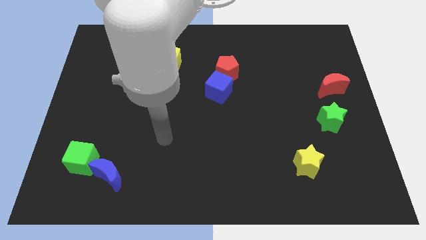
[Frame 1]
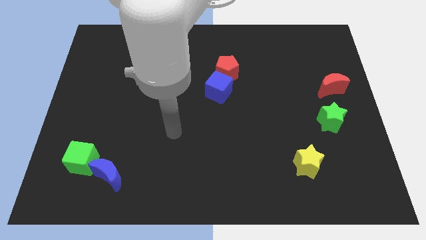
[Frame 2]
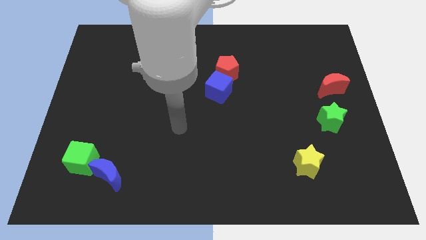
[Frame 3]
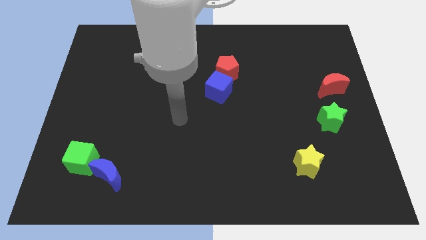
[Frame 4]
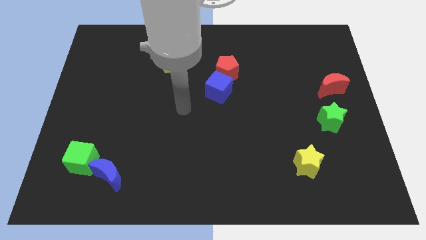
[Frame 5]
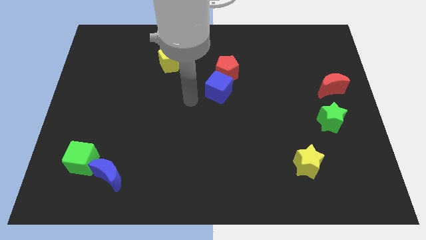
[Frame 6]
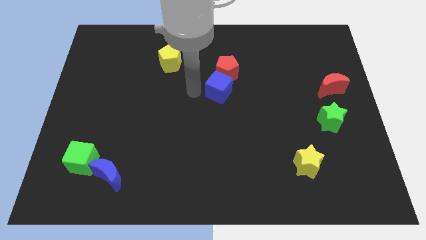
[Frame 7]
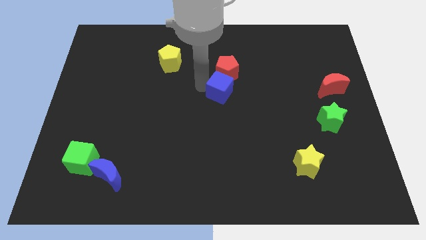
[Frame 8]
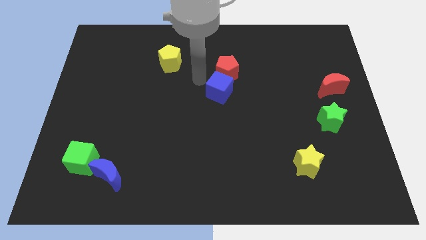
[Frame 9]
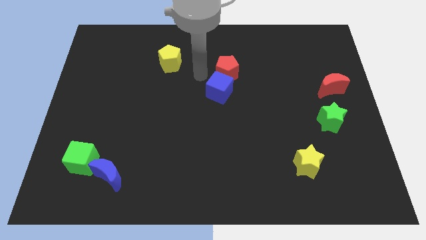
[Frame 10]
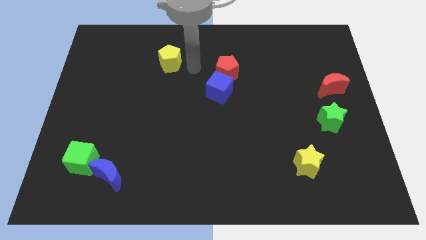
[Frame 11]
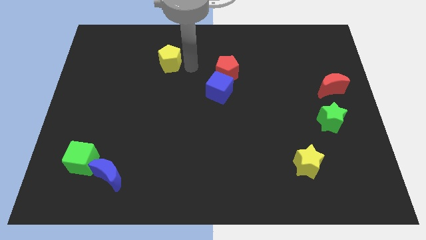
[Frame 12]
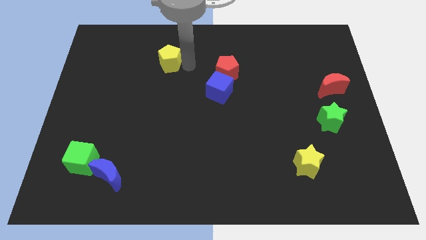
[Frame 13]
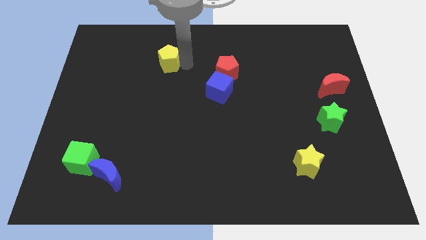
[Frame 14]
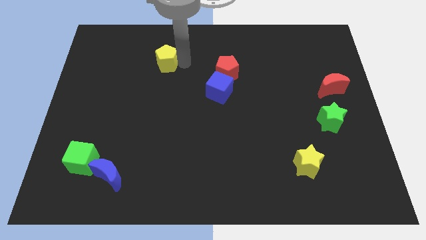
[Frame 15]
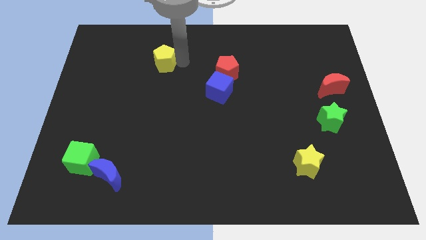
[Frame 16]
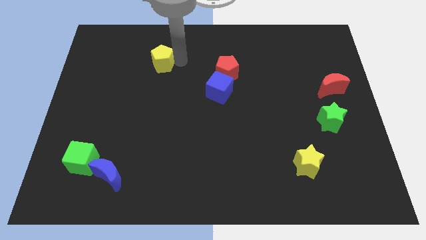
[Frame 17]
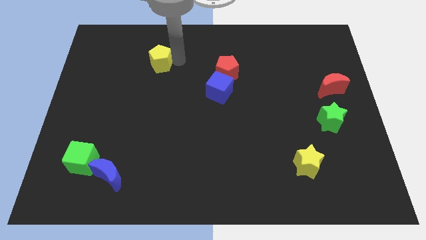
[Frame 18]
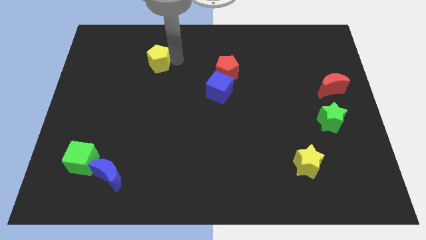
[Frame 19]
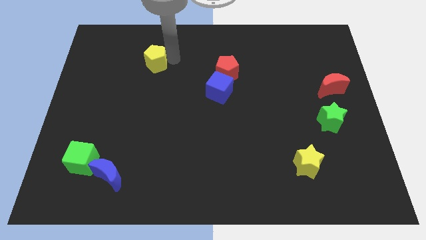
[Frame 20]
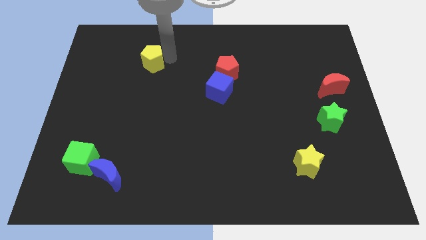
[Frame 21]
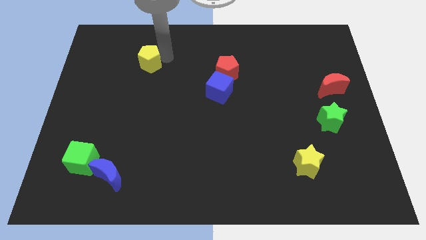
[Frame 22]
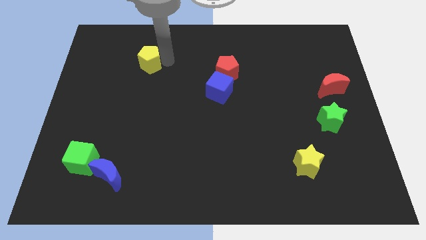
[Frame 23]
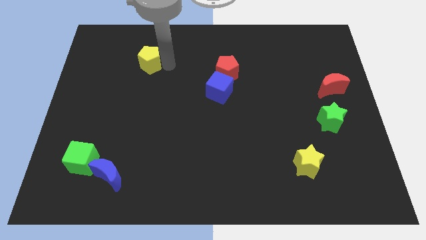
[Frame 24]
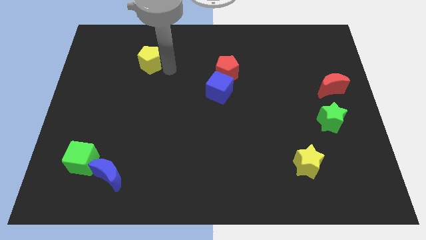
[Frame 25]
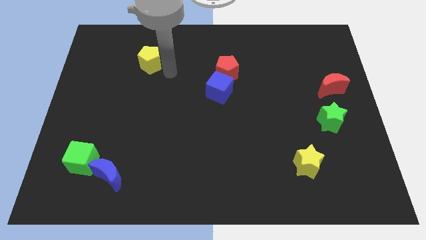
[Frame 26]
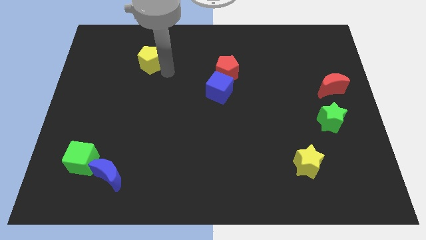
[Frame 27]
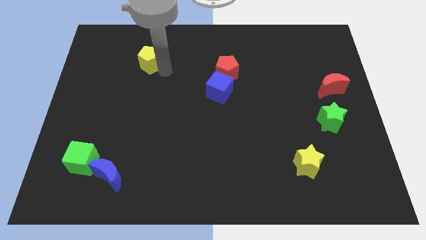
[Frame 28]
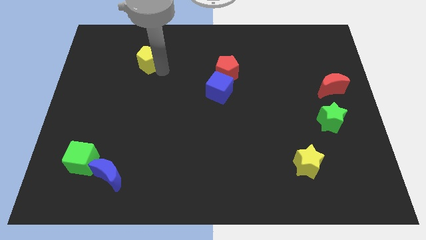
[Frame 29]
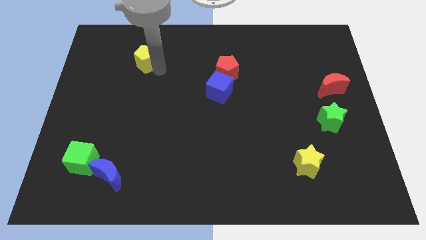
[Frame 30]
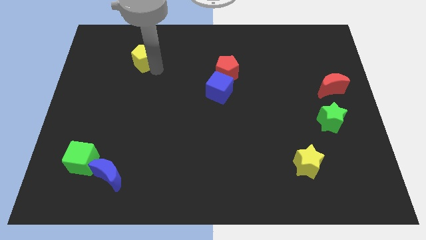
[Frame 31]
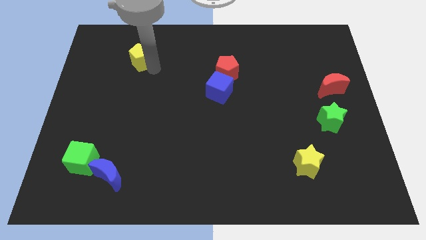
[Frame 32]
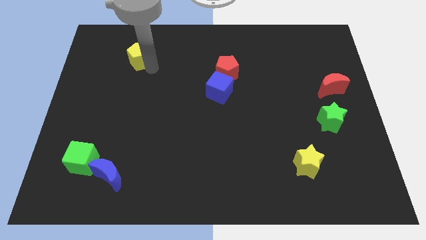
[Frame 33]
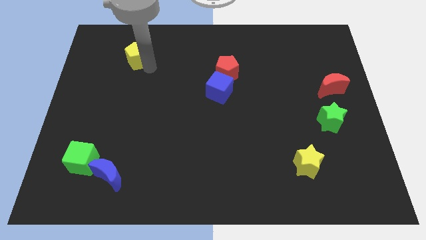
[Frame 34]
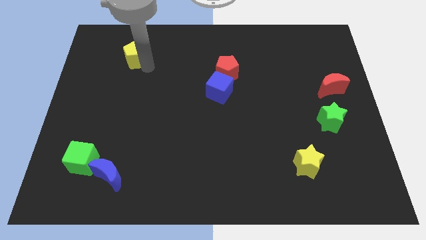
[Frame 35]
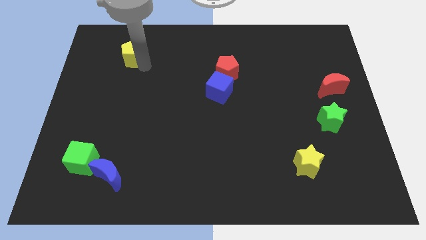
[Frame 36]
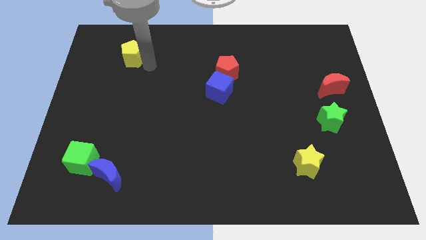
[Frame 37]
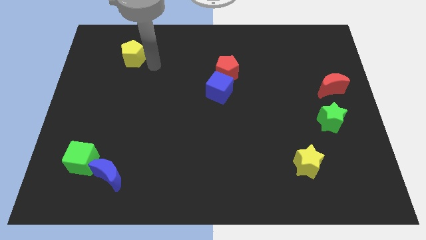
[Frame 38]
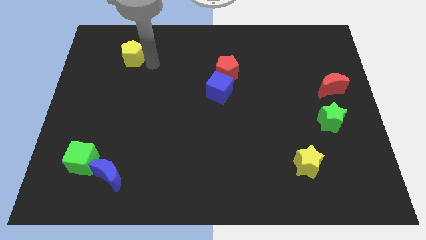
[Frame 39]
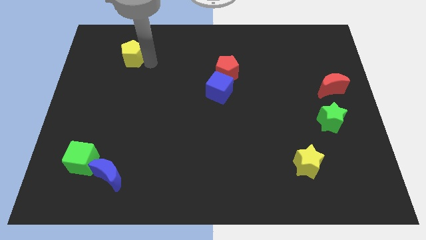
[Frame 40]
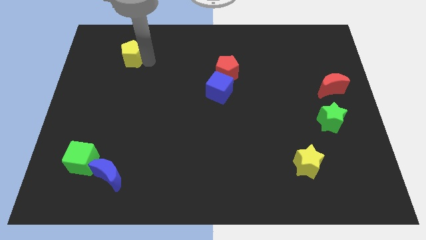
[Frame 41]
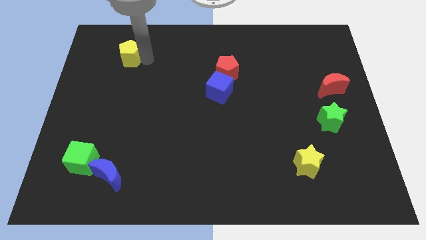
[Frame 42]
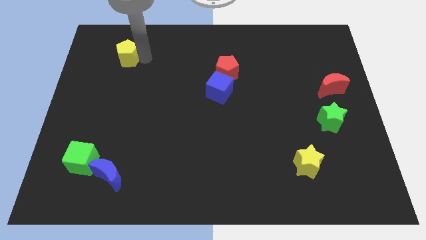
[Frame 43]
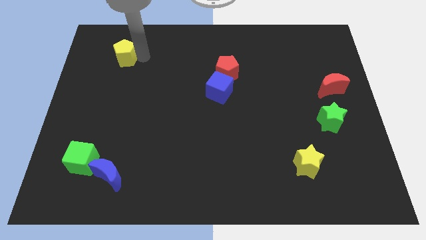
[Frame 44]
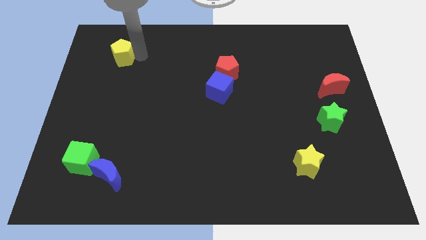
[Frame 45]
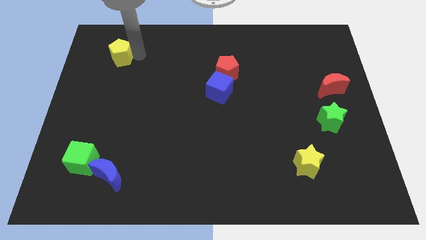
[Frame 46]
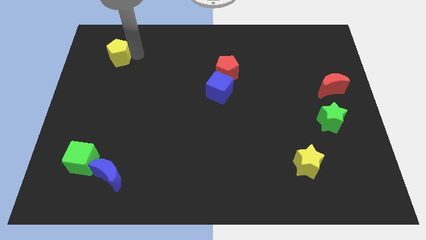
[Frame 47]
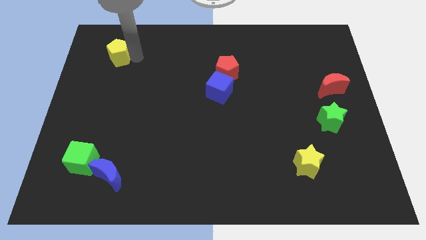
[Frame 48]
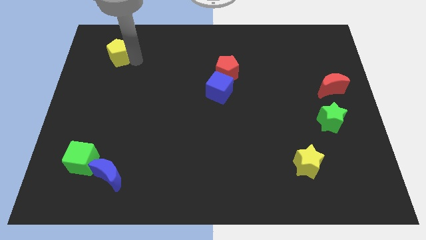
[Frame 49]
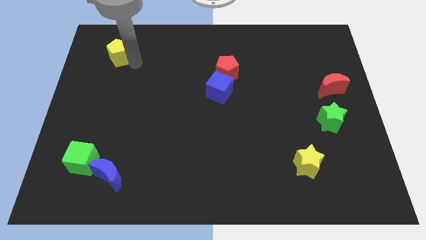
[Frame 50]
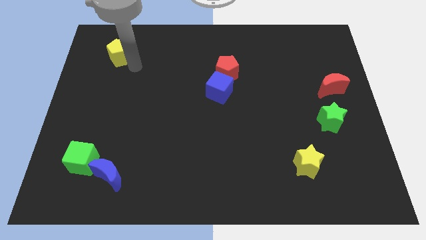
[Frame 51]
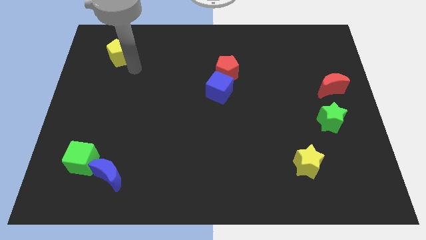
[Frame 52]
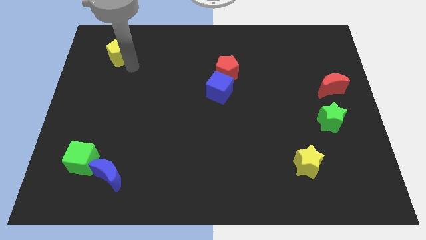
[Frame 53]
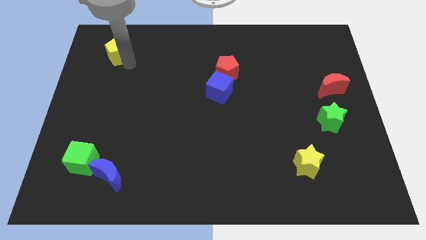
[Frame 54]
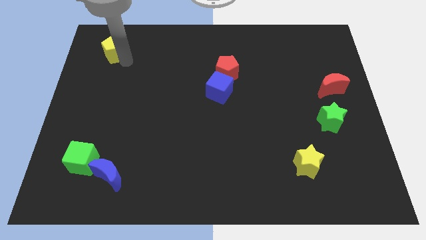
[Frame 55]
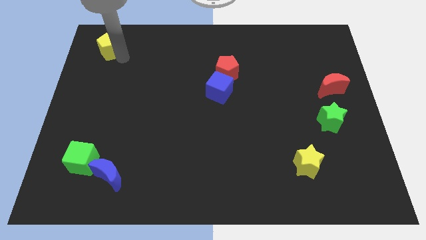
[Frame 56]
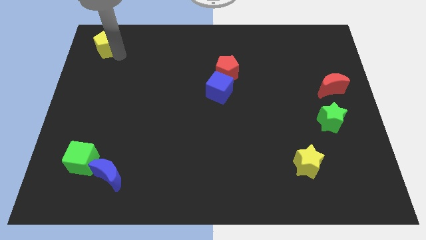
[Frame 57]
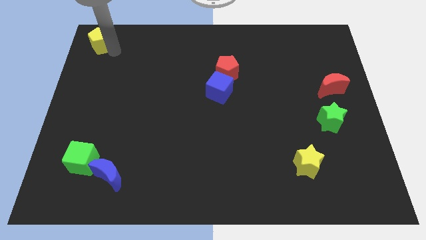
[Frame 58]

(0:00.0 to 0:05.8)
push the yellow pentagon to the upper left corner

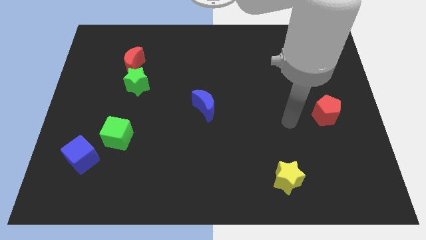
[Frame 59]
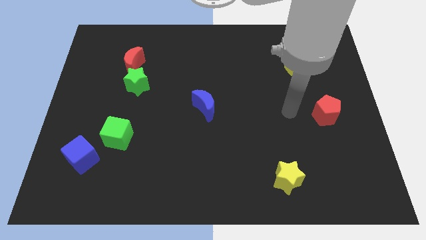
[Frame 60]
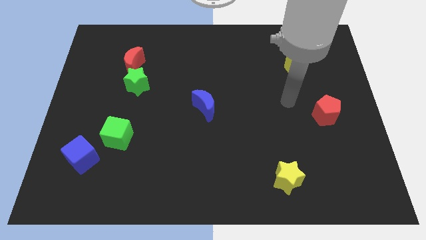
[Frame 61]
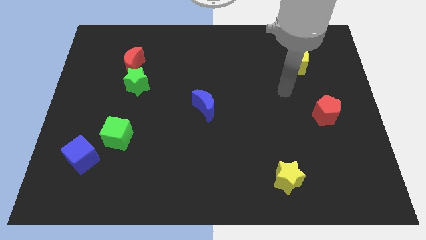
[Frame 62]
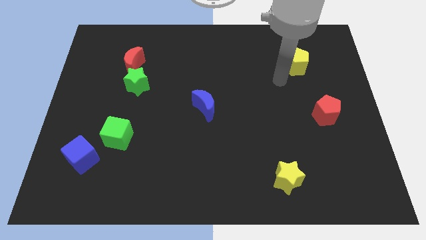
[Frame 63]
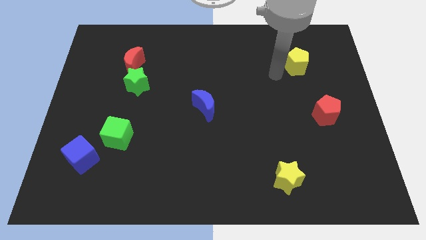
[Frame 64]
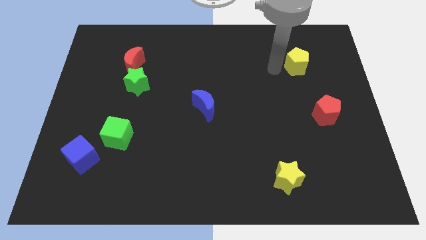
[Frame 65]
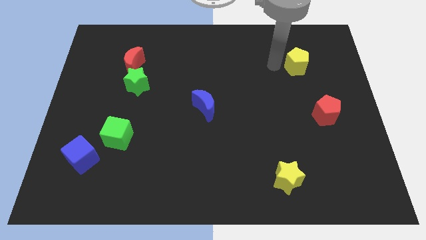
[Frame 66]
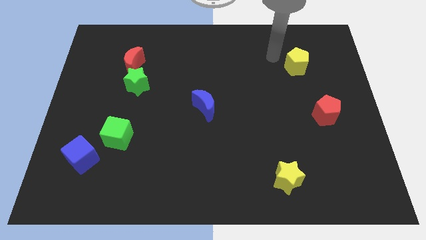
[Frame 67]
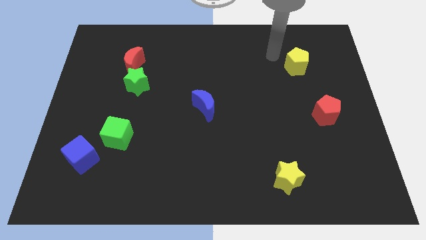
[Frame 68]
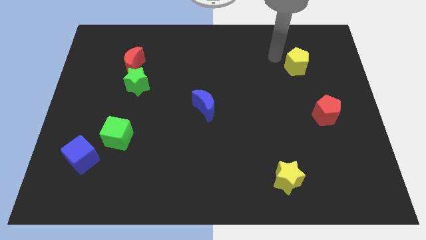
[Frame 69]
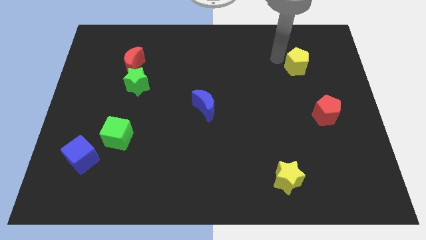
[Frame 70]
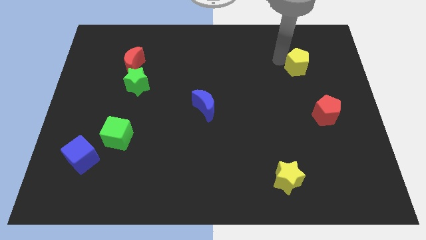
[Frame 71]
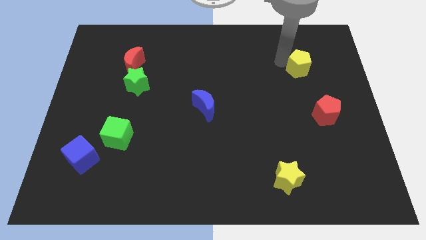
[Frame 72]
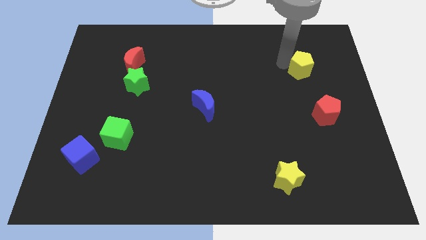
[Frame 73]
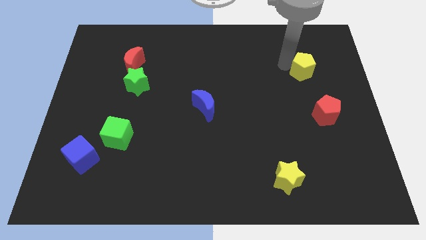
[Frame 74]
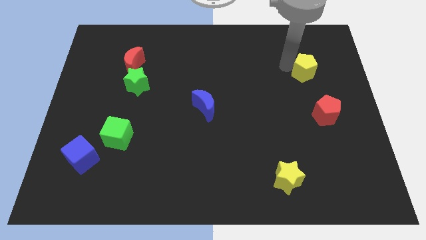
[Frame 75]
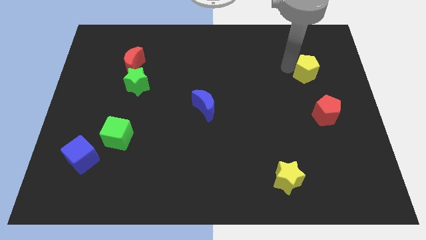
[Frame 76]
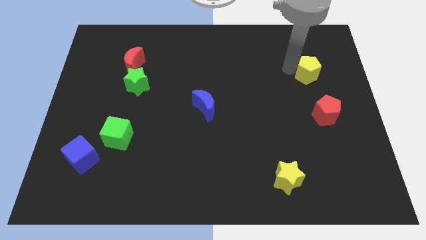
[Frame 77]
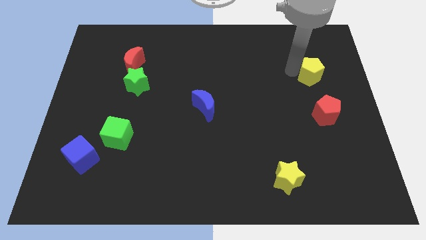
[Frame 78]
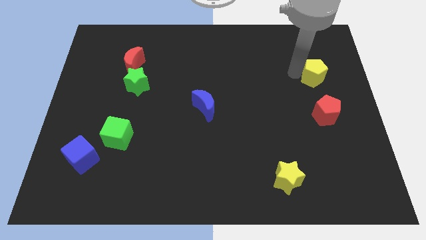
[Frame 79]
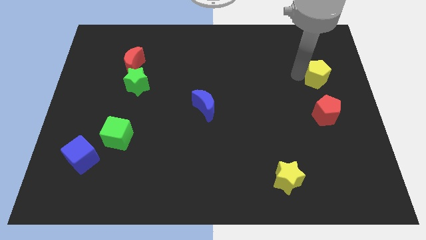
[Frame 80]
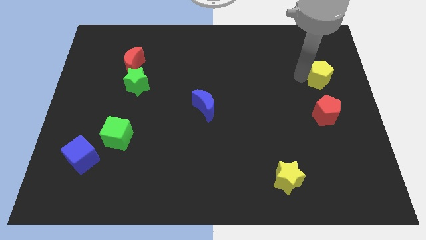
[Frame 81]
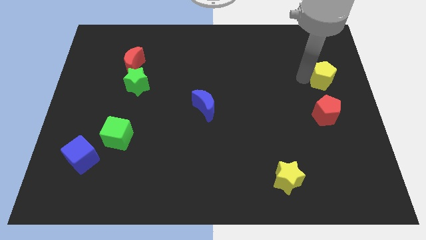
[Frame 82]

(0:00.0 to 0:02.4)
put the yellow pentagon to the right side of the board
